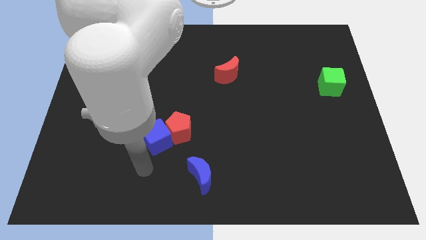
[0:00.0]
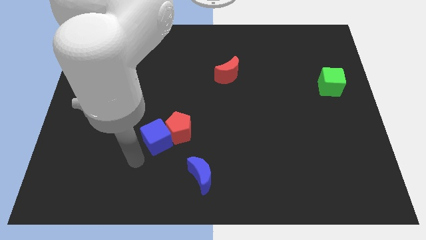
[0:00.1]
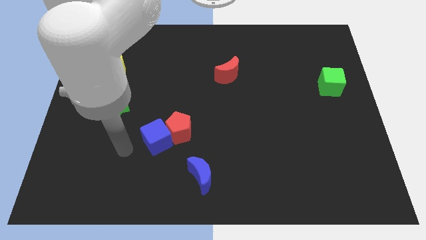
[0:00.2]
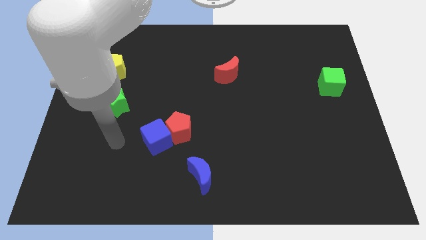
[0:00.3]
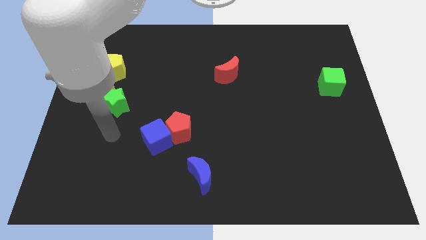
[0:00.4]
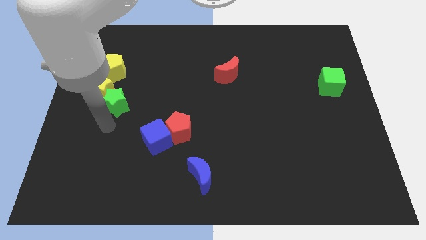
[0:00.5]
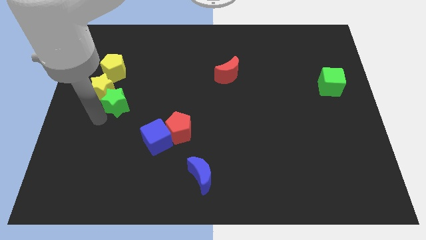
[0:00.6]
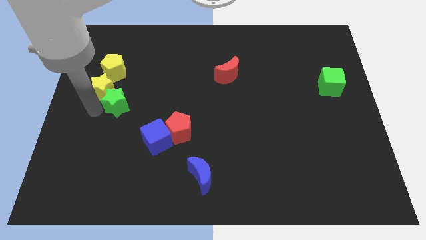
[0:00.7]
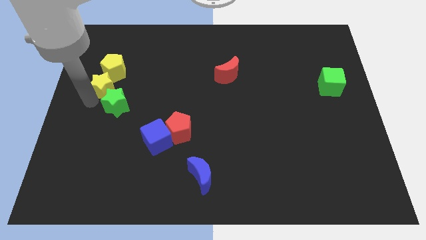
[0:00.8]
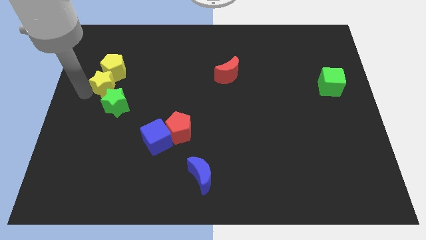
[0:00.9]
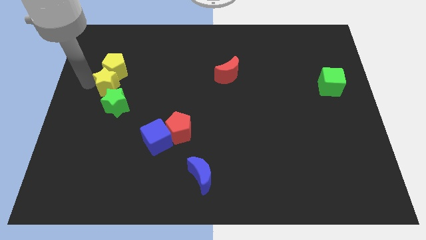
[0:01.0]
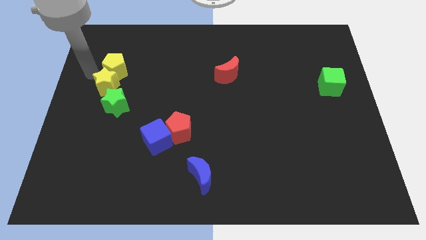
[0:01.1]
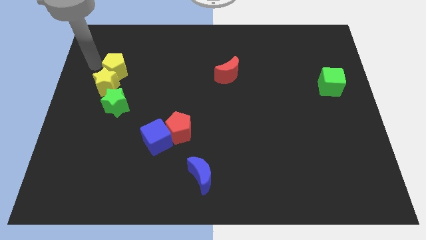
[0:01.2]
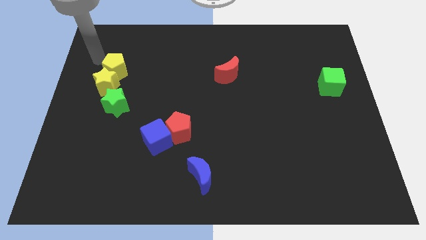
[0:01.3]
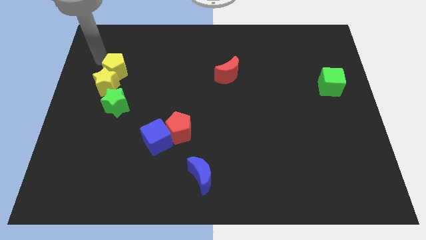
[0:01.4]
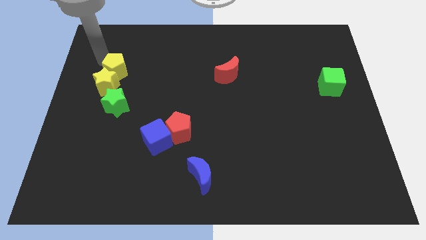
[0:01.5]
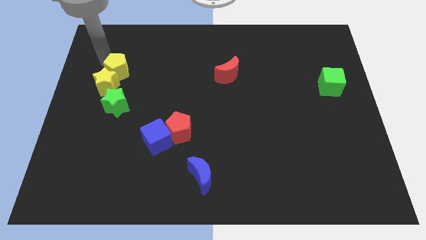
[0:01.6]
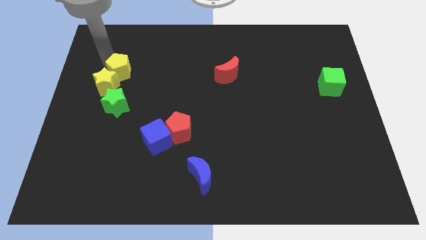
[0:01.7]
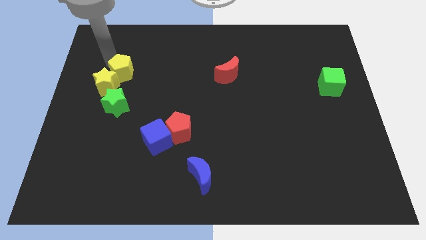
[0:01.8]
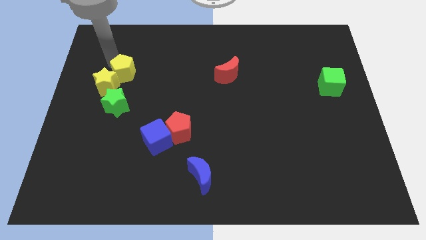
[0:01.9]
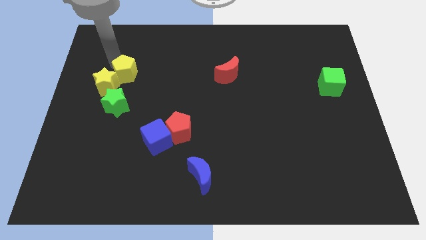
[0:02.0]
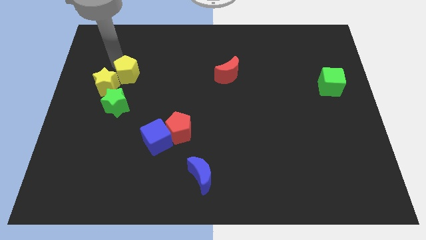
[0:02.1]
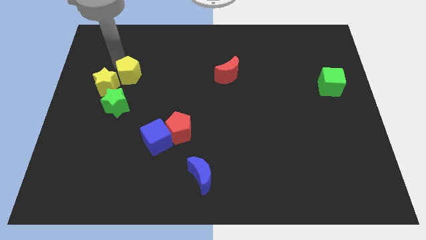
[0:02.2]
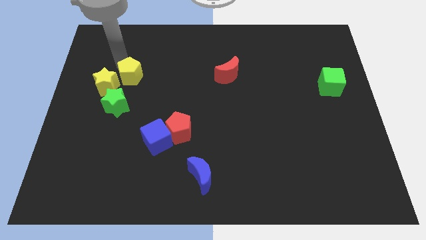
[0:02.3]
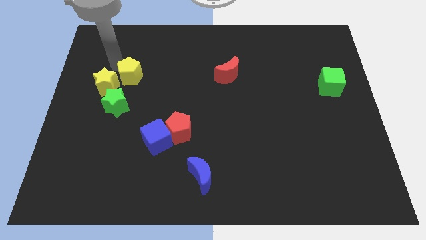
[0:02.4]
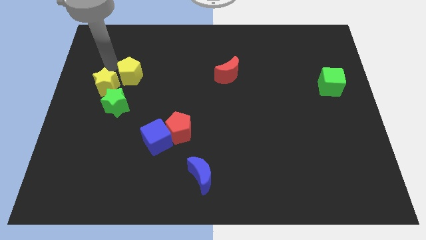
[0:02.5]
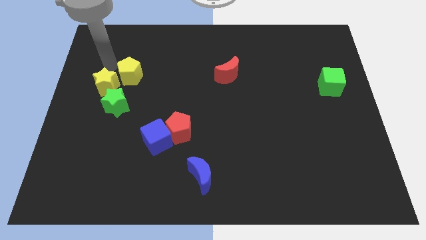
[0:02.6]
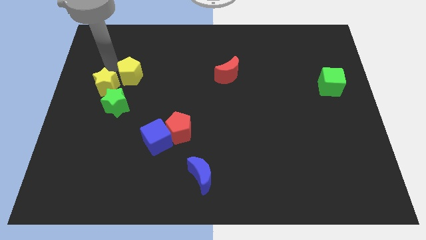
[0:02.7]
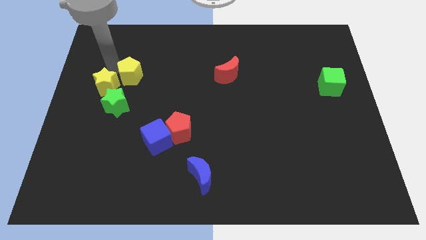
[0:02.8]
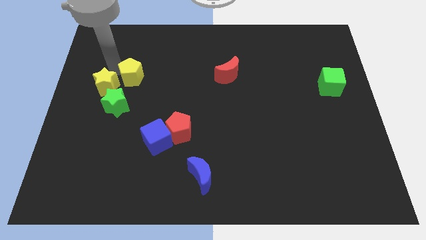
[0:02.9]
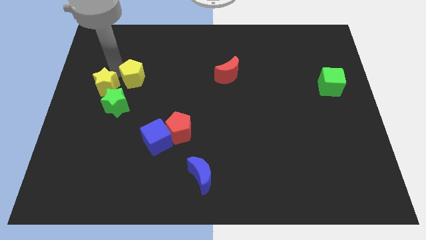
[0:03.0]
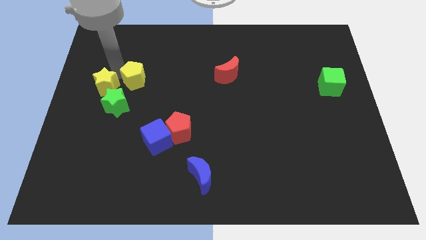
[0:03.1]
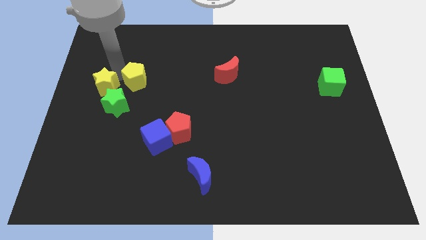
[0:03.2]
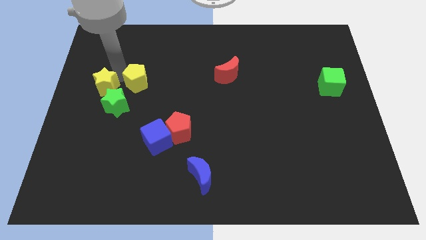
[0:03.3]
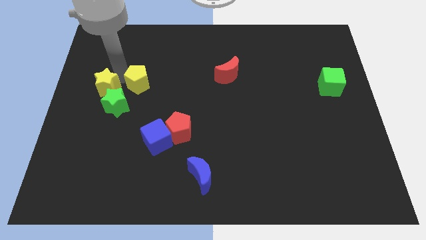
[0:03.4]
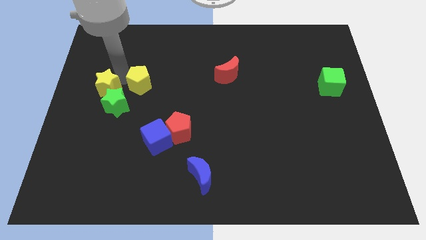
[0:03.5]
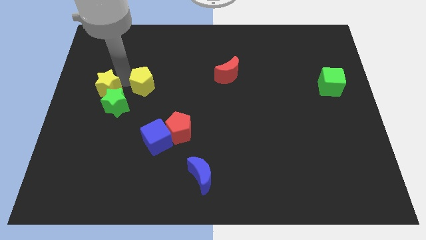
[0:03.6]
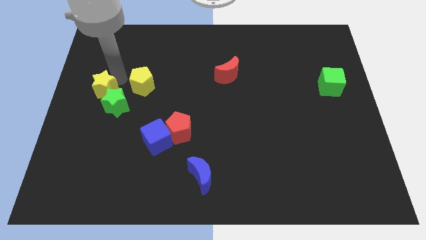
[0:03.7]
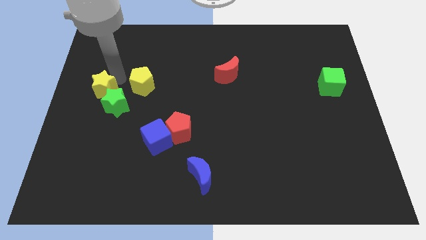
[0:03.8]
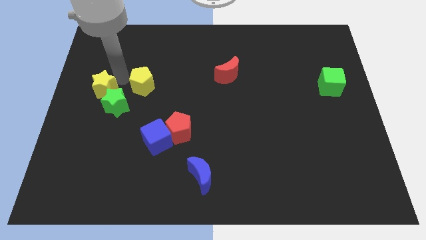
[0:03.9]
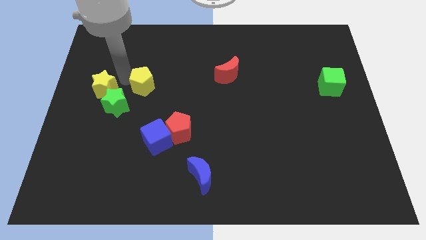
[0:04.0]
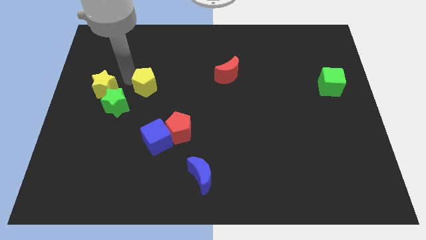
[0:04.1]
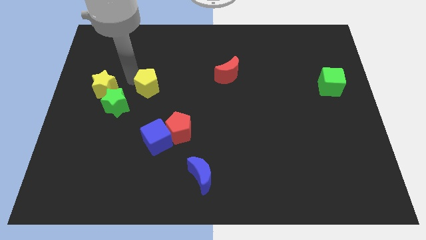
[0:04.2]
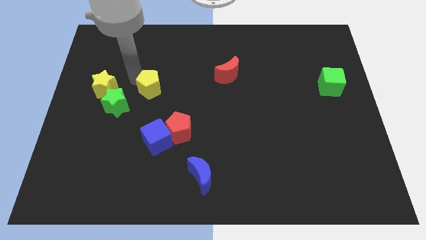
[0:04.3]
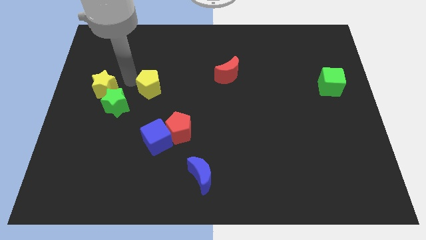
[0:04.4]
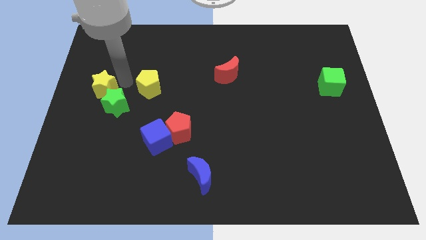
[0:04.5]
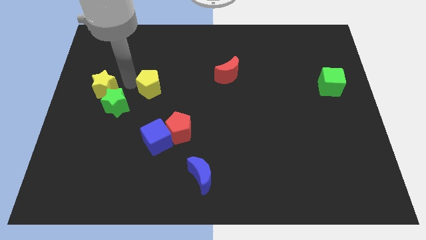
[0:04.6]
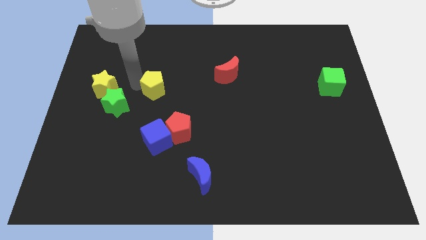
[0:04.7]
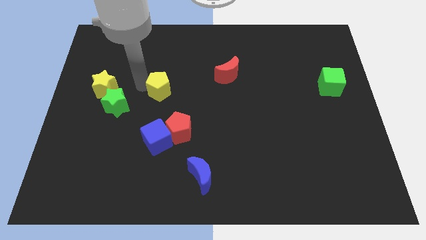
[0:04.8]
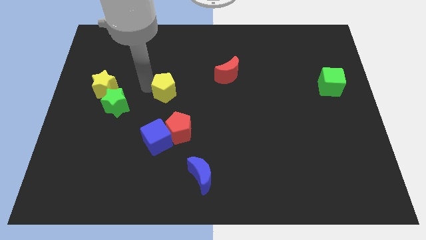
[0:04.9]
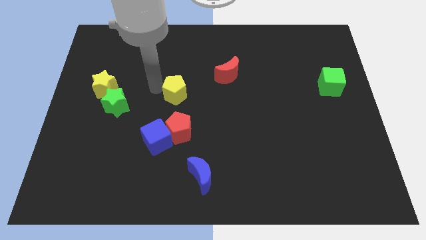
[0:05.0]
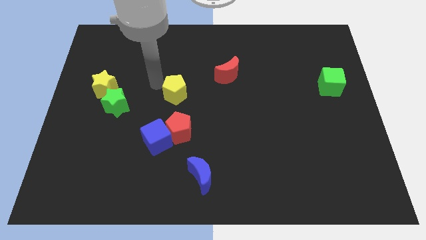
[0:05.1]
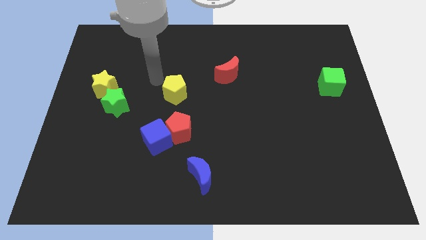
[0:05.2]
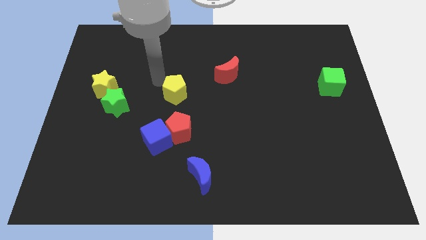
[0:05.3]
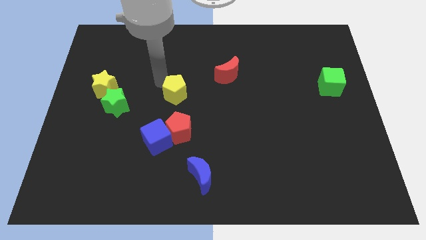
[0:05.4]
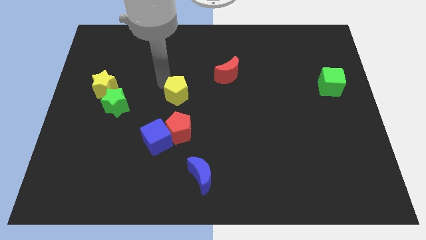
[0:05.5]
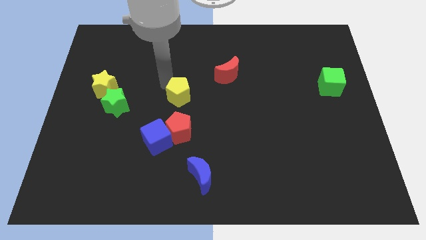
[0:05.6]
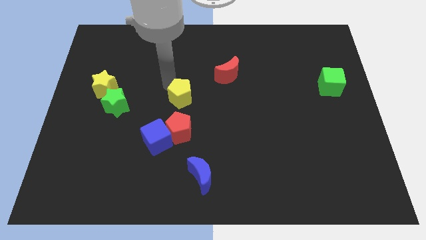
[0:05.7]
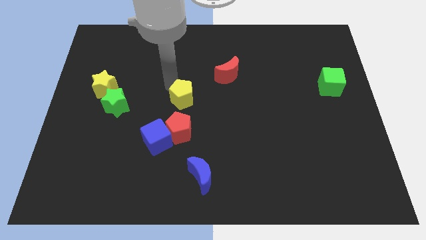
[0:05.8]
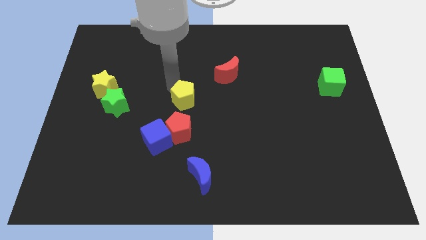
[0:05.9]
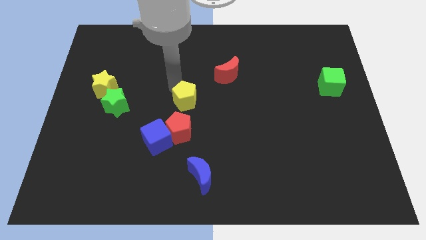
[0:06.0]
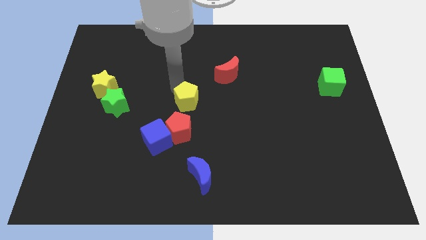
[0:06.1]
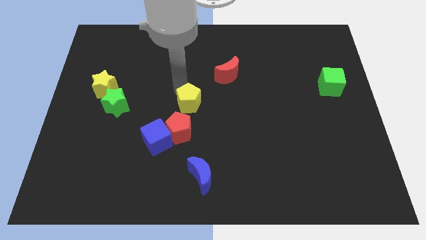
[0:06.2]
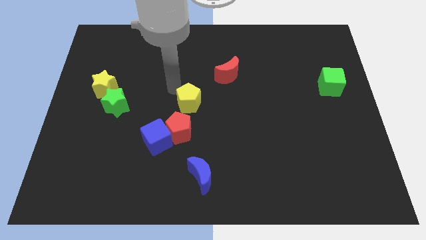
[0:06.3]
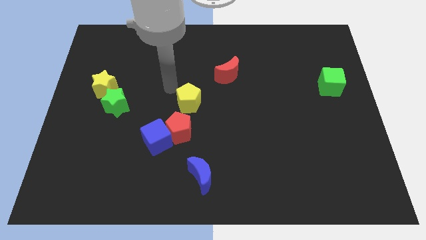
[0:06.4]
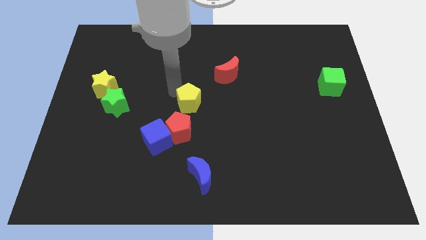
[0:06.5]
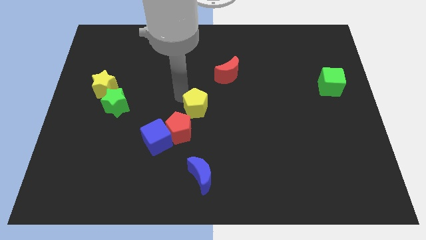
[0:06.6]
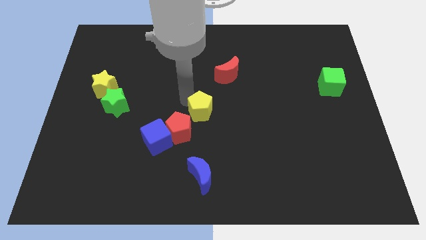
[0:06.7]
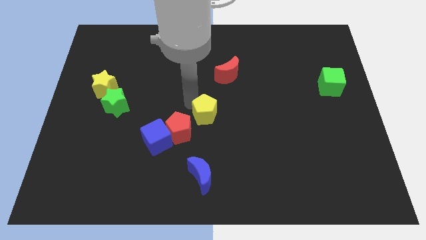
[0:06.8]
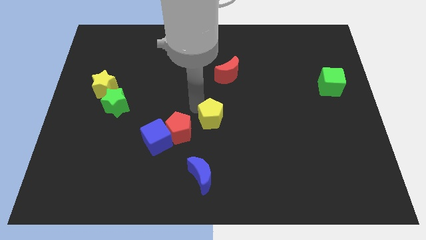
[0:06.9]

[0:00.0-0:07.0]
slide the yellow pentagon right of the red pentagon
